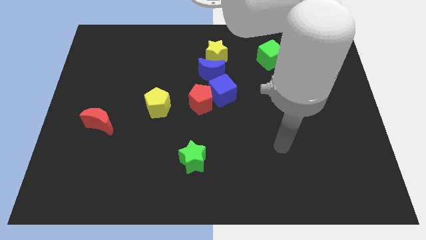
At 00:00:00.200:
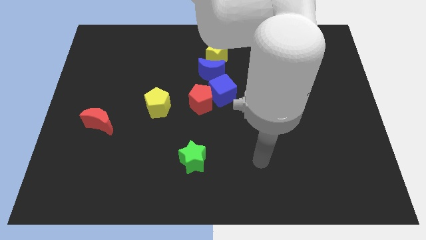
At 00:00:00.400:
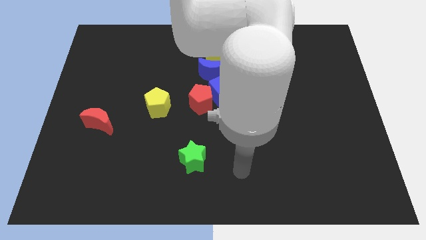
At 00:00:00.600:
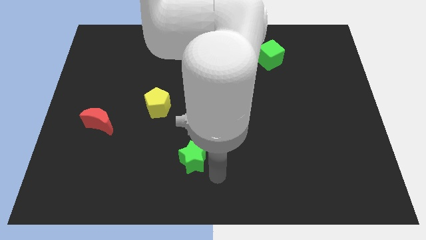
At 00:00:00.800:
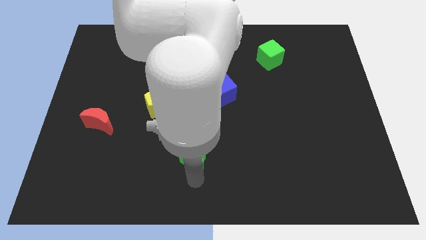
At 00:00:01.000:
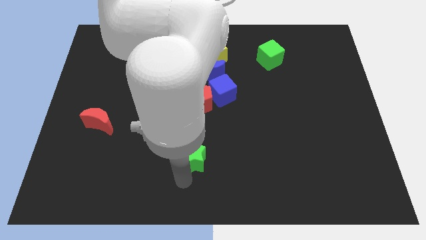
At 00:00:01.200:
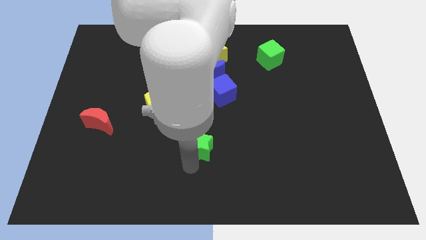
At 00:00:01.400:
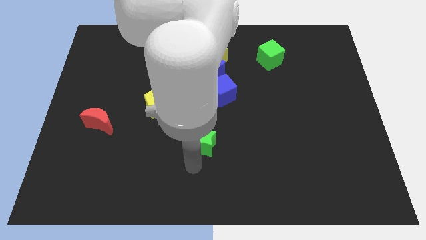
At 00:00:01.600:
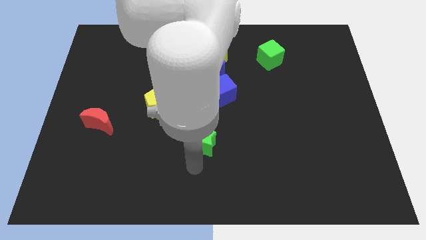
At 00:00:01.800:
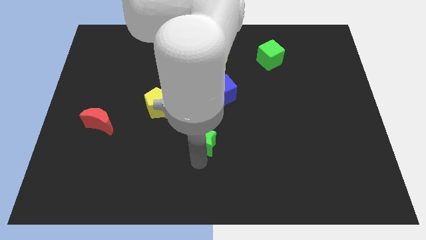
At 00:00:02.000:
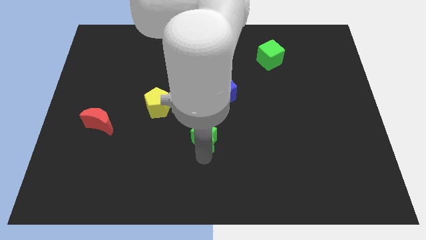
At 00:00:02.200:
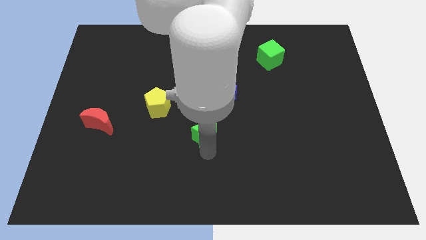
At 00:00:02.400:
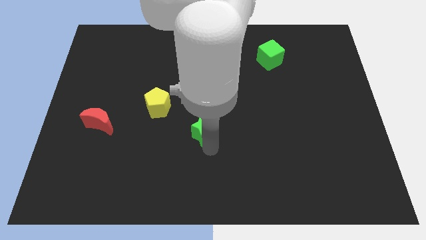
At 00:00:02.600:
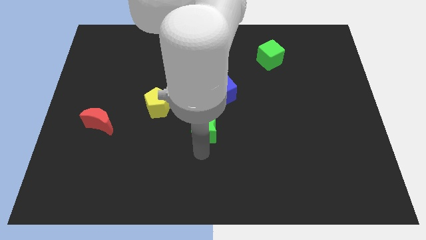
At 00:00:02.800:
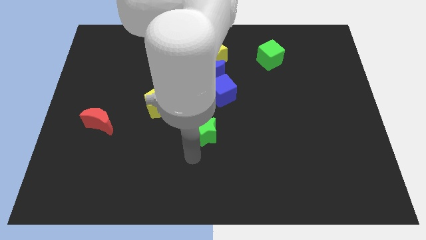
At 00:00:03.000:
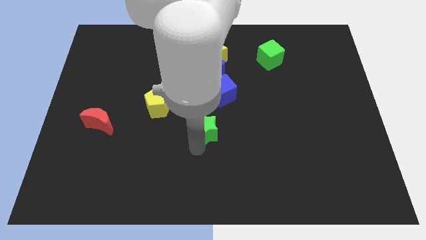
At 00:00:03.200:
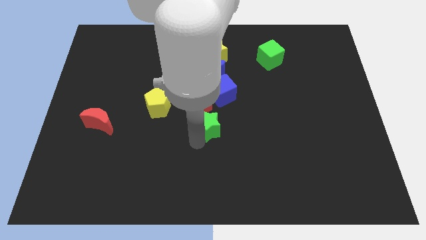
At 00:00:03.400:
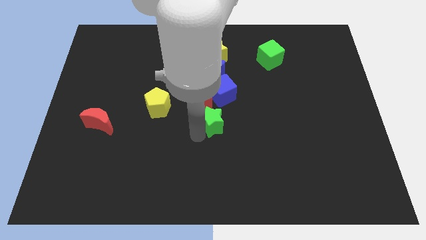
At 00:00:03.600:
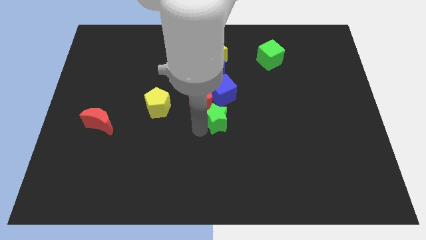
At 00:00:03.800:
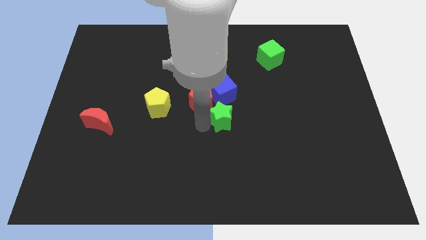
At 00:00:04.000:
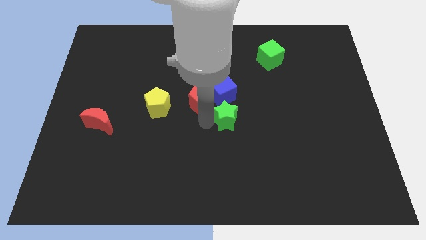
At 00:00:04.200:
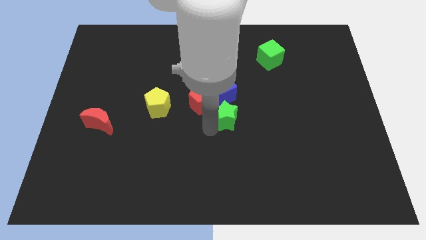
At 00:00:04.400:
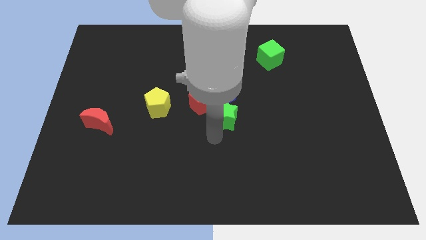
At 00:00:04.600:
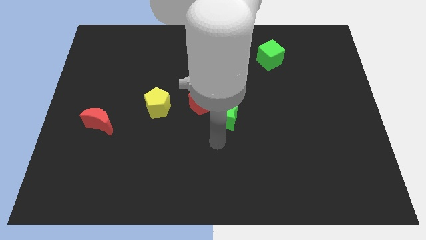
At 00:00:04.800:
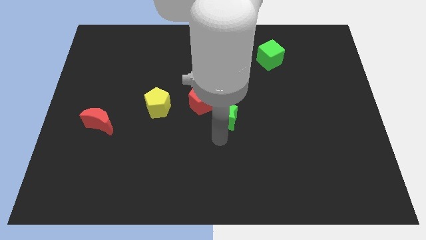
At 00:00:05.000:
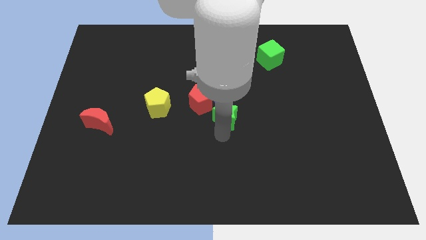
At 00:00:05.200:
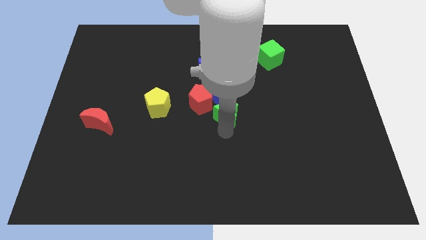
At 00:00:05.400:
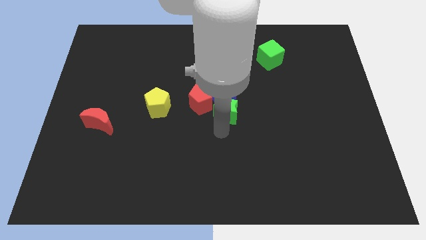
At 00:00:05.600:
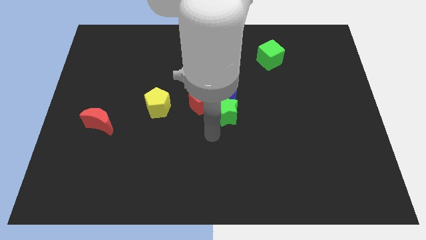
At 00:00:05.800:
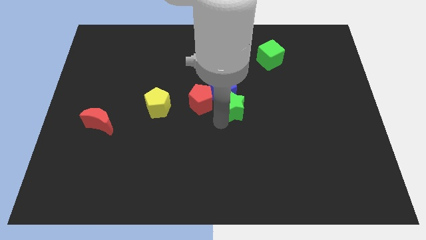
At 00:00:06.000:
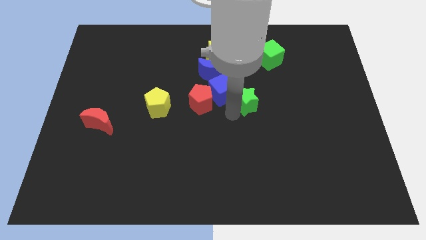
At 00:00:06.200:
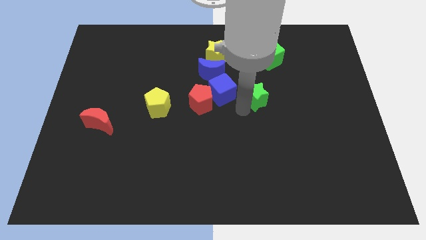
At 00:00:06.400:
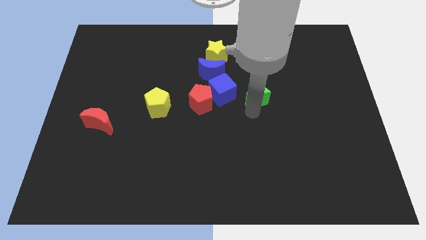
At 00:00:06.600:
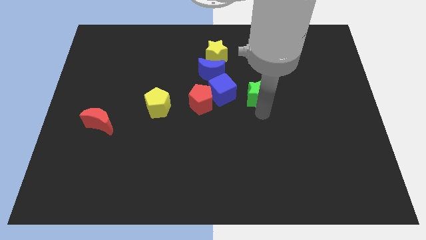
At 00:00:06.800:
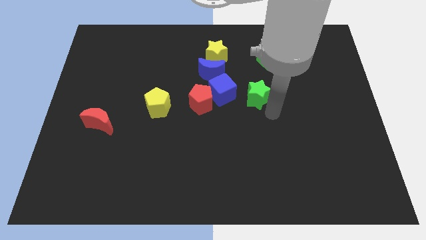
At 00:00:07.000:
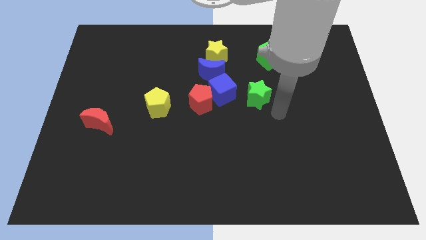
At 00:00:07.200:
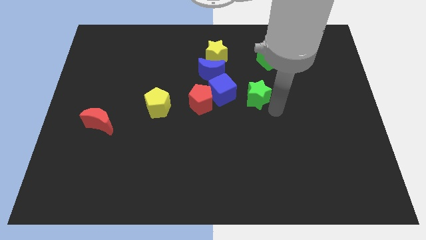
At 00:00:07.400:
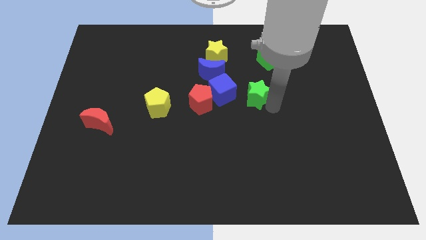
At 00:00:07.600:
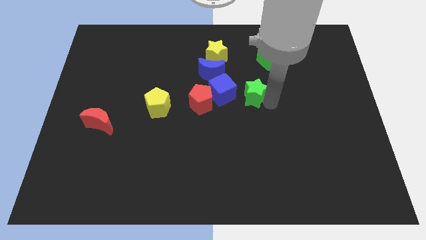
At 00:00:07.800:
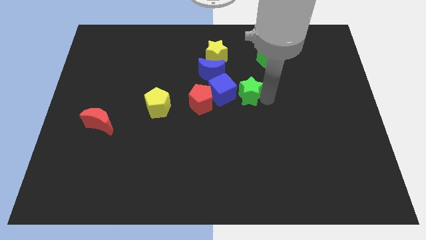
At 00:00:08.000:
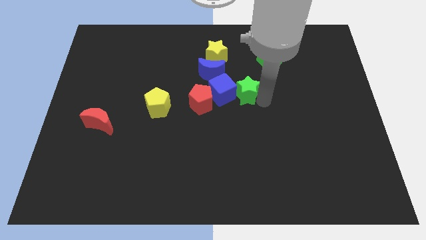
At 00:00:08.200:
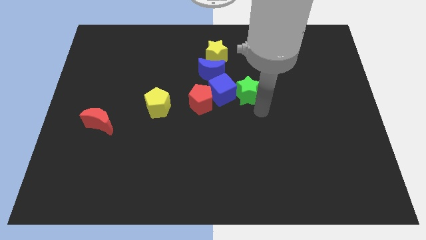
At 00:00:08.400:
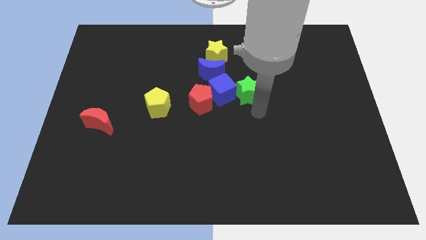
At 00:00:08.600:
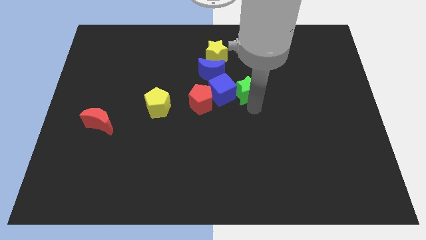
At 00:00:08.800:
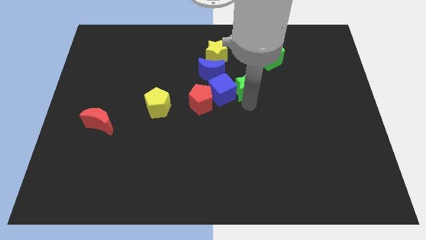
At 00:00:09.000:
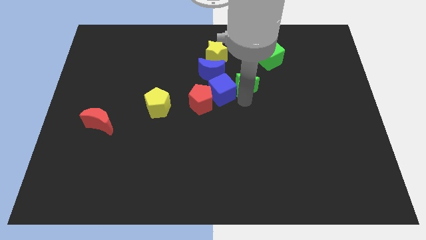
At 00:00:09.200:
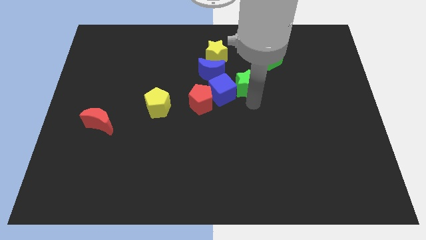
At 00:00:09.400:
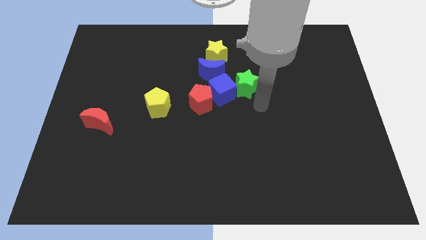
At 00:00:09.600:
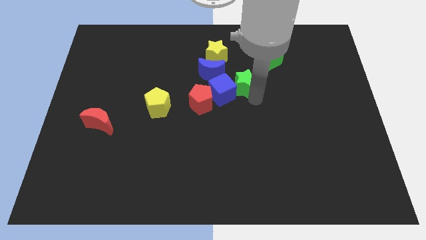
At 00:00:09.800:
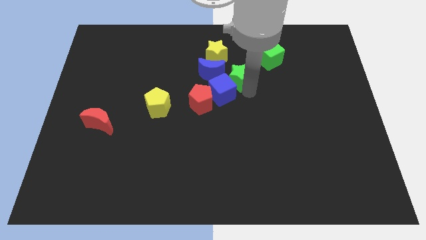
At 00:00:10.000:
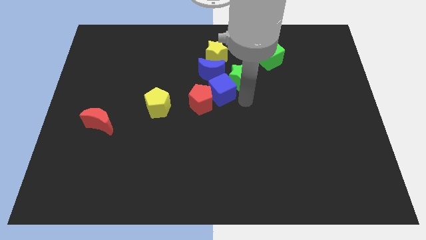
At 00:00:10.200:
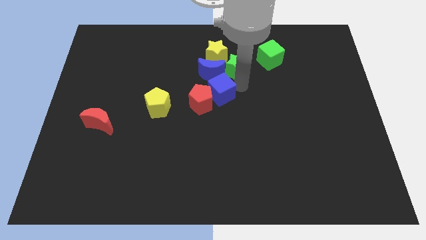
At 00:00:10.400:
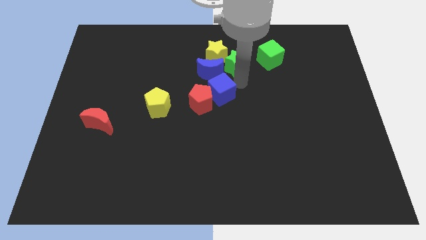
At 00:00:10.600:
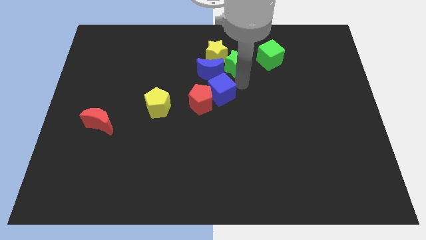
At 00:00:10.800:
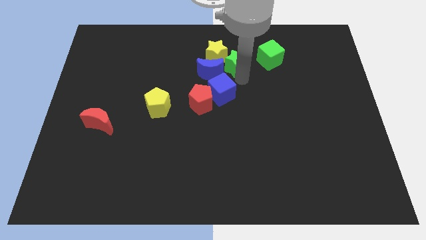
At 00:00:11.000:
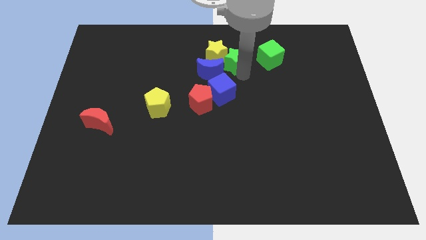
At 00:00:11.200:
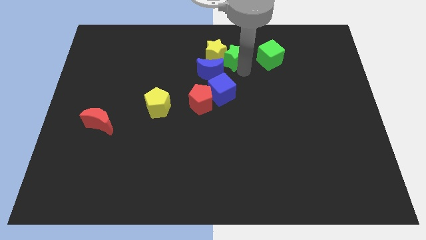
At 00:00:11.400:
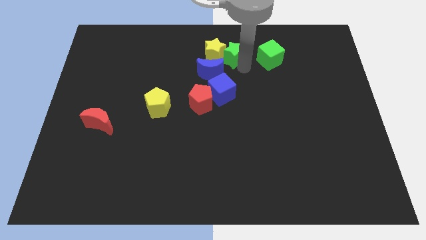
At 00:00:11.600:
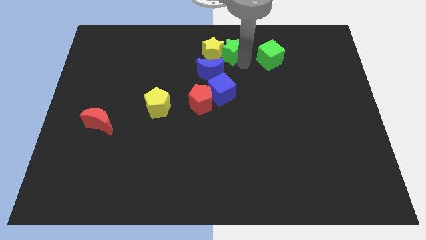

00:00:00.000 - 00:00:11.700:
move the green star to the towards your base
